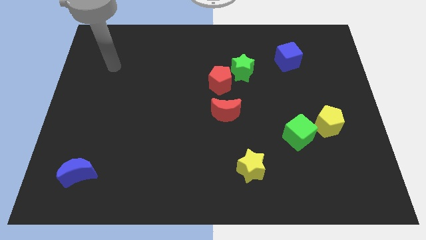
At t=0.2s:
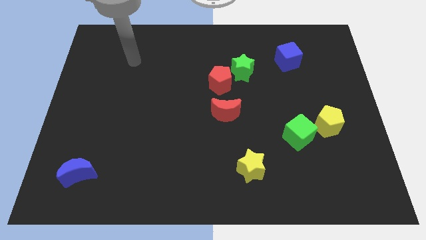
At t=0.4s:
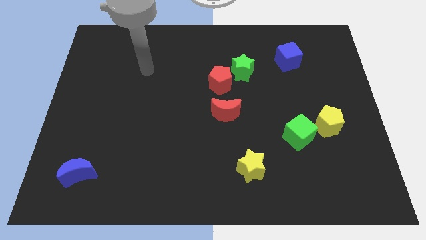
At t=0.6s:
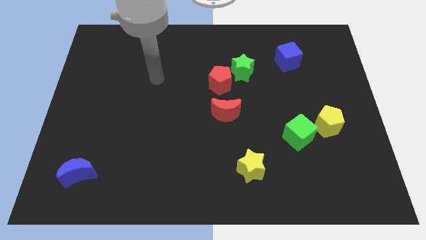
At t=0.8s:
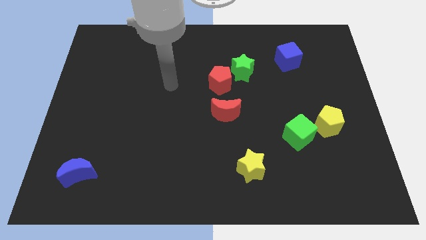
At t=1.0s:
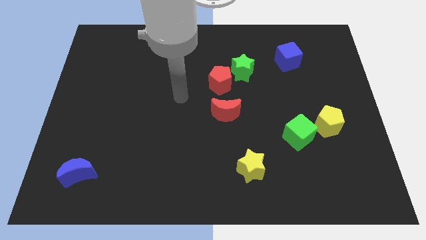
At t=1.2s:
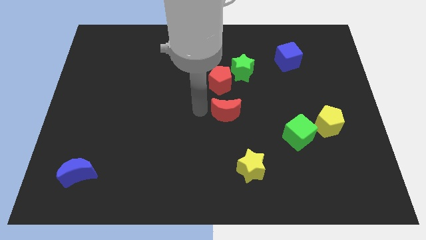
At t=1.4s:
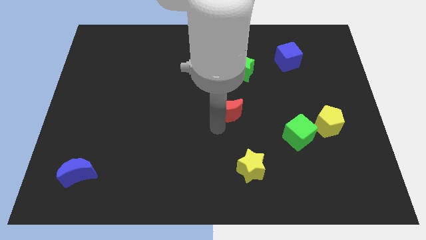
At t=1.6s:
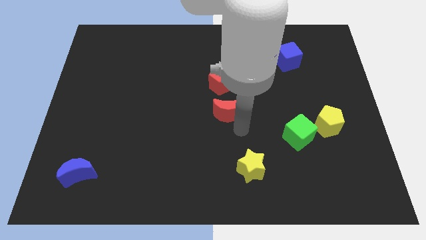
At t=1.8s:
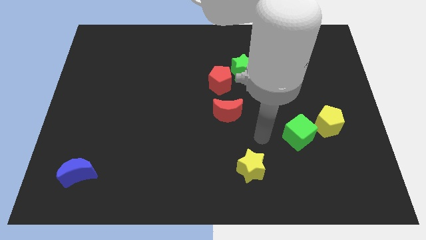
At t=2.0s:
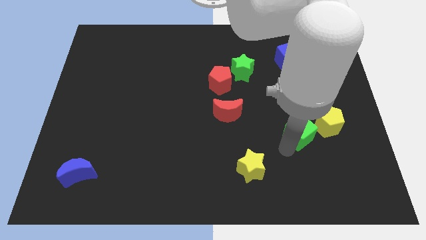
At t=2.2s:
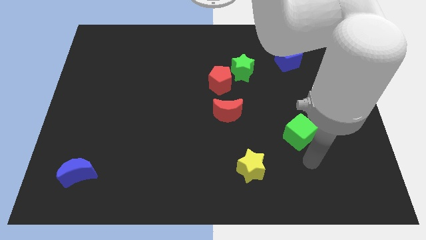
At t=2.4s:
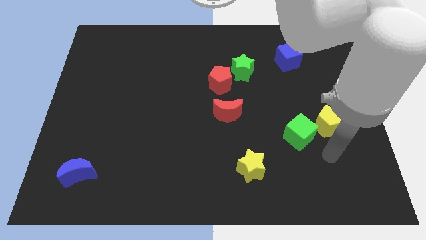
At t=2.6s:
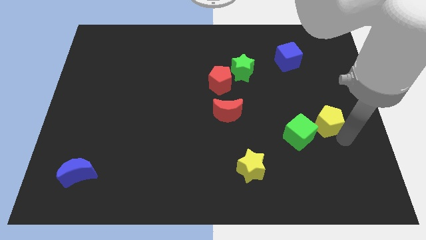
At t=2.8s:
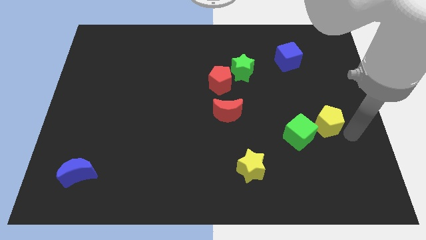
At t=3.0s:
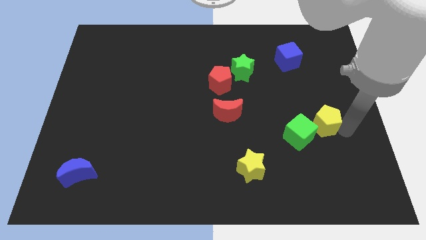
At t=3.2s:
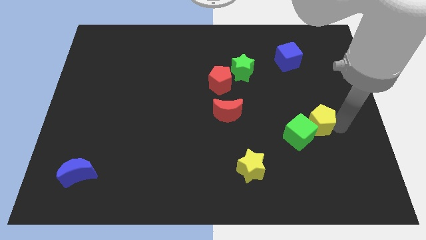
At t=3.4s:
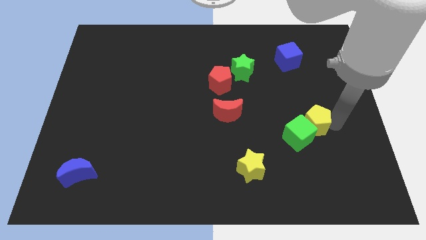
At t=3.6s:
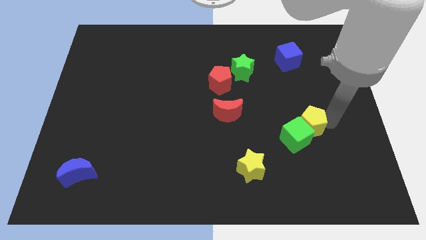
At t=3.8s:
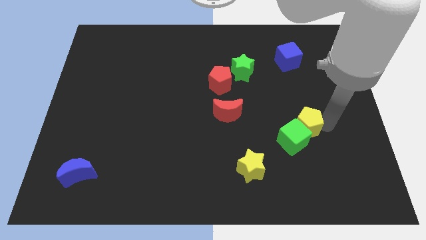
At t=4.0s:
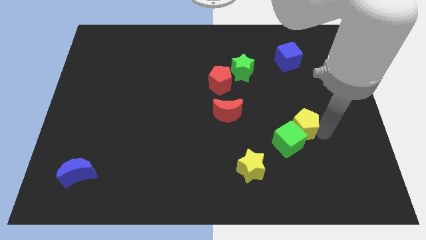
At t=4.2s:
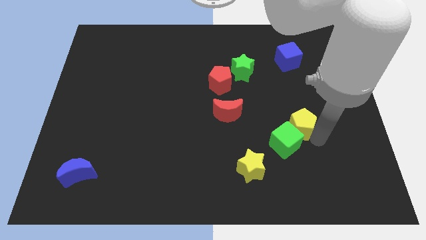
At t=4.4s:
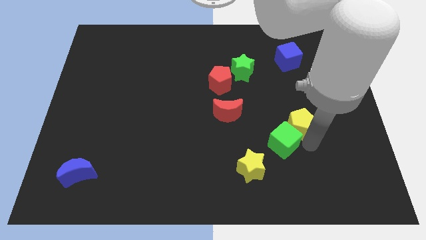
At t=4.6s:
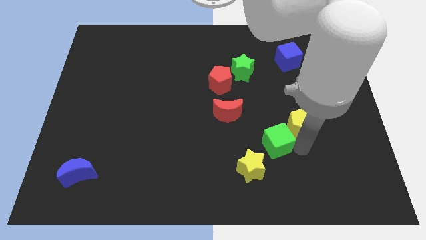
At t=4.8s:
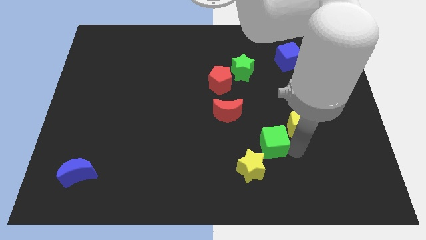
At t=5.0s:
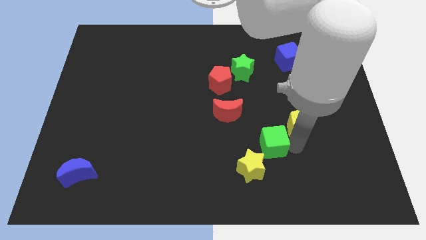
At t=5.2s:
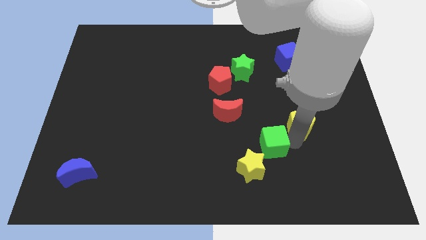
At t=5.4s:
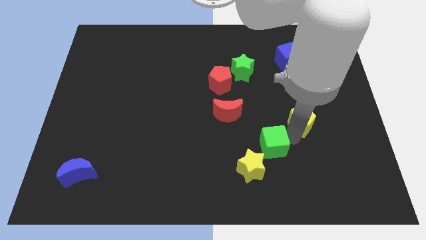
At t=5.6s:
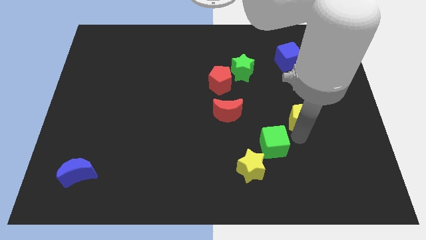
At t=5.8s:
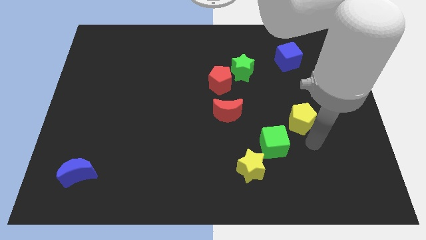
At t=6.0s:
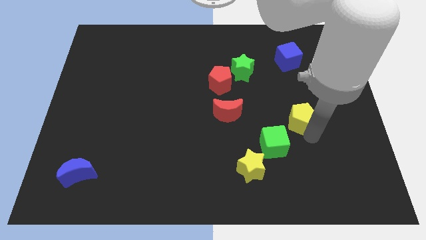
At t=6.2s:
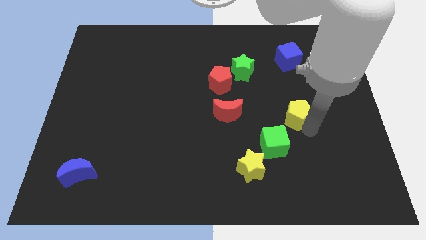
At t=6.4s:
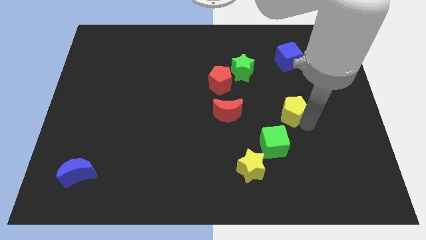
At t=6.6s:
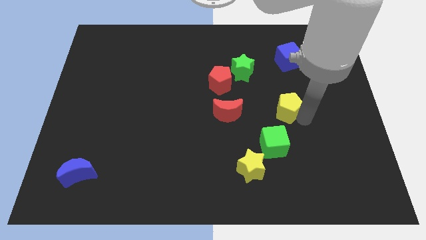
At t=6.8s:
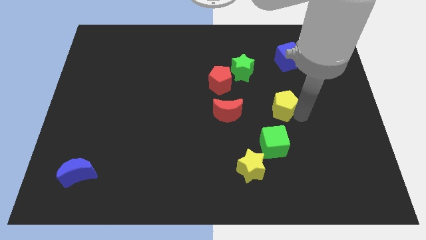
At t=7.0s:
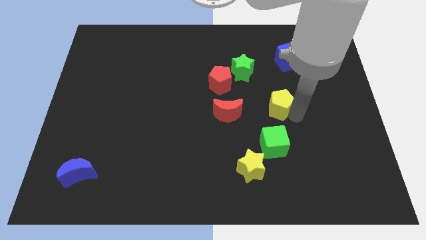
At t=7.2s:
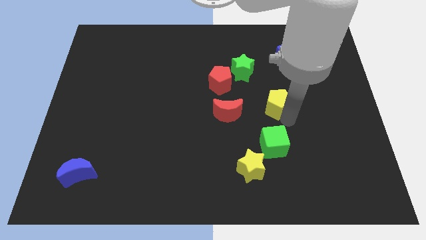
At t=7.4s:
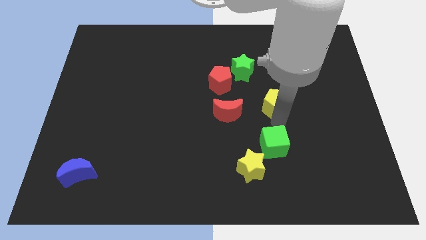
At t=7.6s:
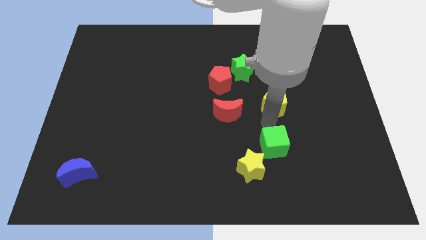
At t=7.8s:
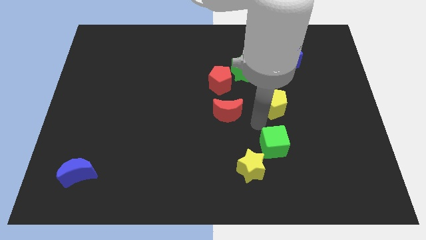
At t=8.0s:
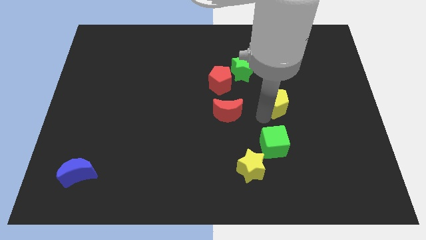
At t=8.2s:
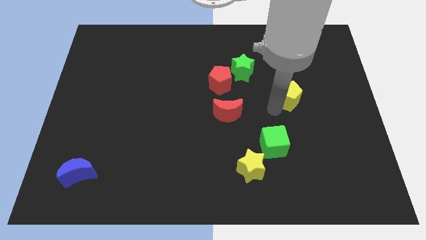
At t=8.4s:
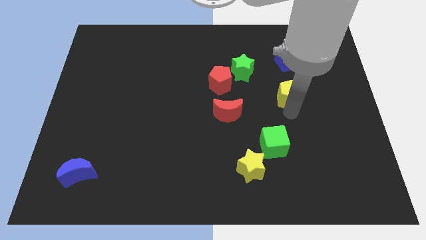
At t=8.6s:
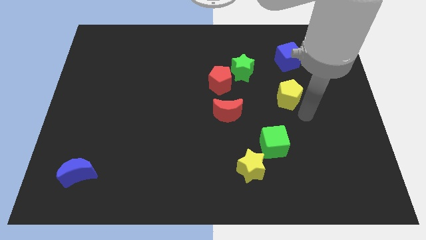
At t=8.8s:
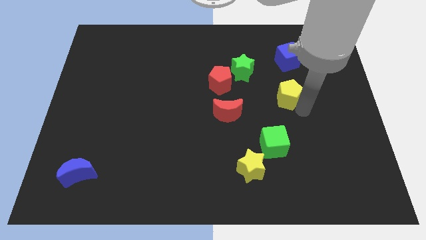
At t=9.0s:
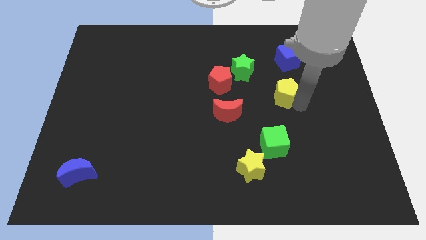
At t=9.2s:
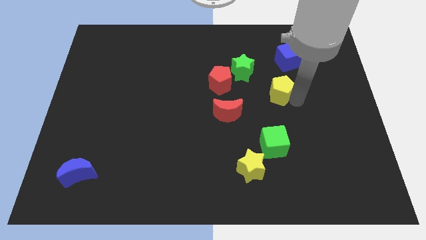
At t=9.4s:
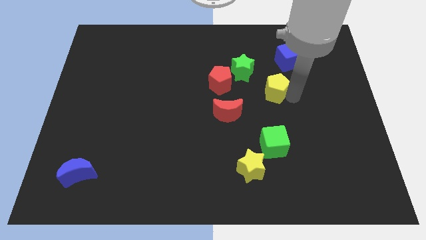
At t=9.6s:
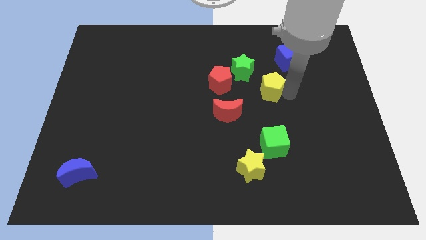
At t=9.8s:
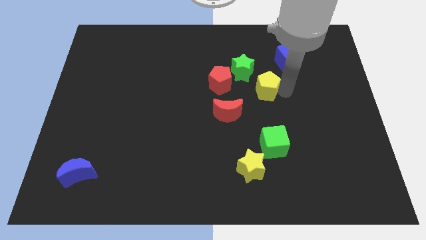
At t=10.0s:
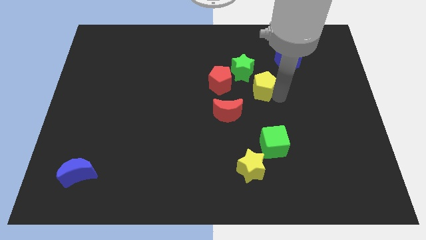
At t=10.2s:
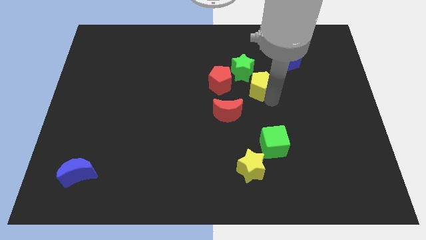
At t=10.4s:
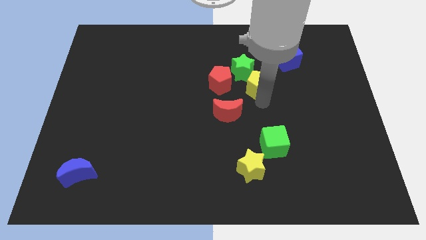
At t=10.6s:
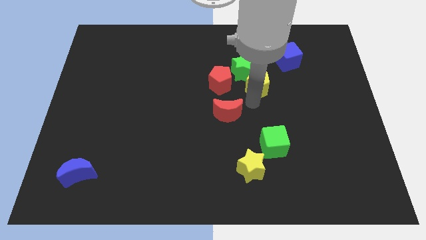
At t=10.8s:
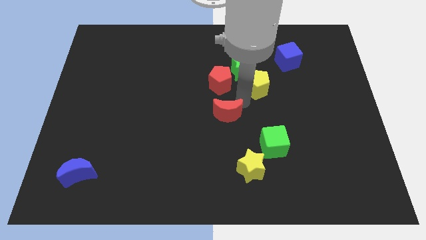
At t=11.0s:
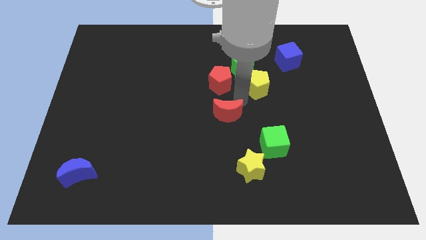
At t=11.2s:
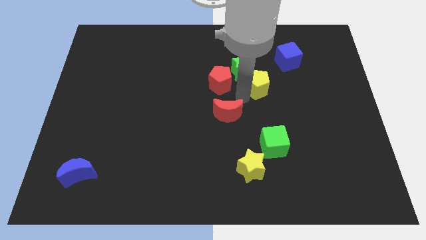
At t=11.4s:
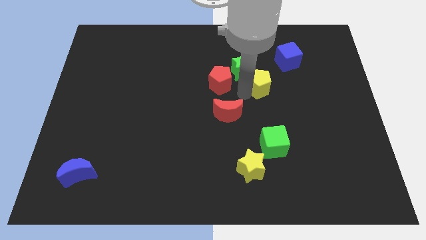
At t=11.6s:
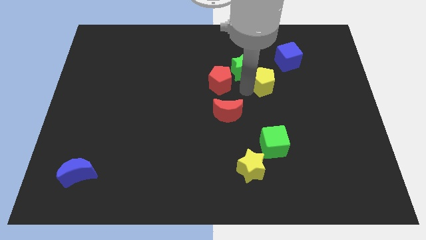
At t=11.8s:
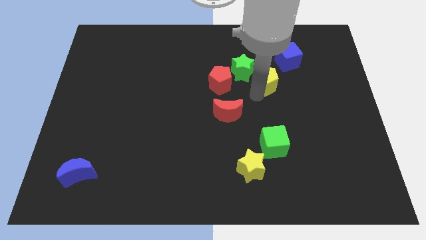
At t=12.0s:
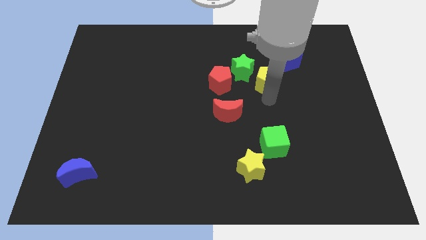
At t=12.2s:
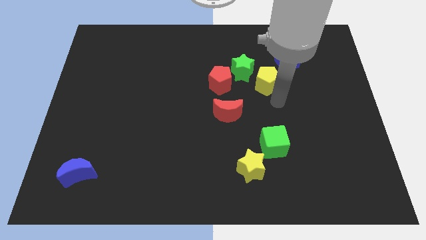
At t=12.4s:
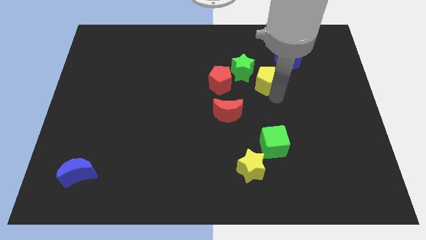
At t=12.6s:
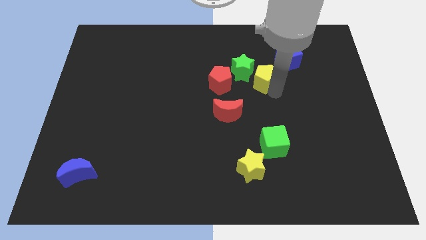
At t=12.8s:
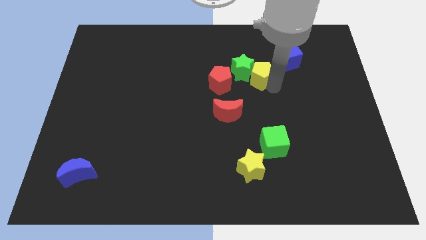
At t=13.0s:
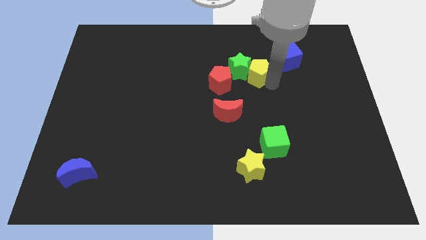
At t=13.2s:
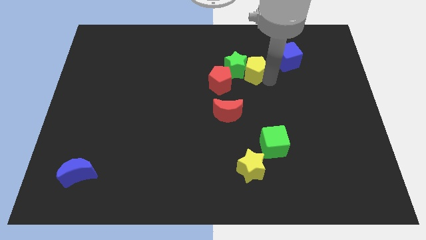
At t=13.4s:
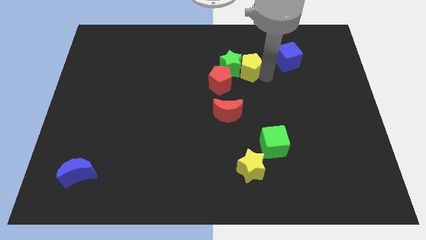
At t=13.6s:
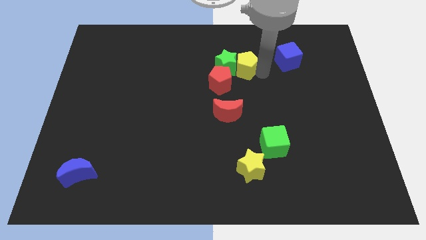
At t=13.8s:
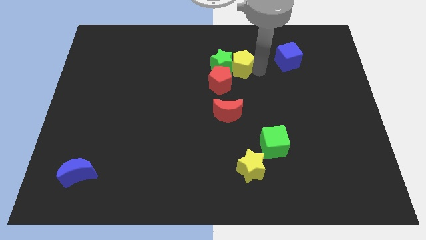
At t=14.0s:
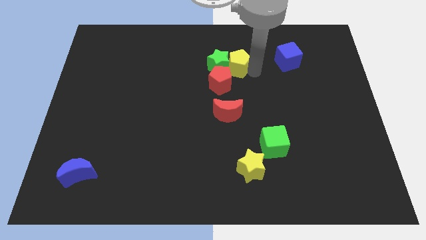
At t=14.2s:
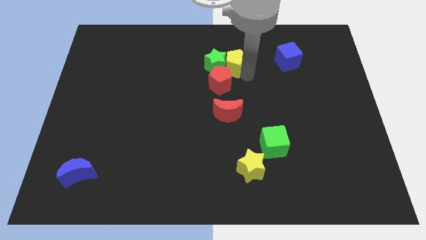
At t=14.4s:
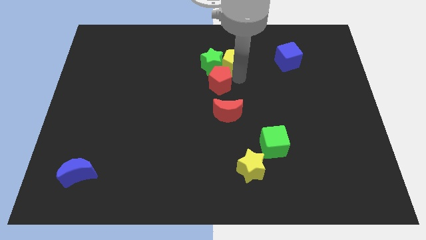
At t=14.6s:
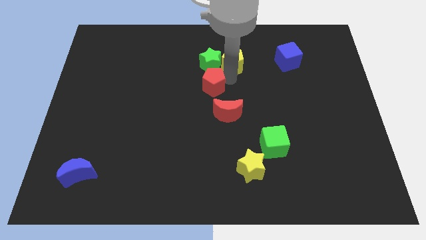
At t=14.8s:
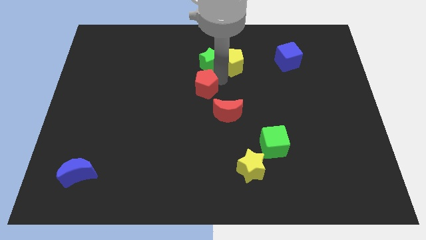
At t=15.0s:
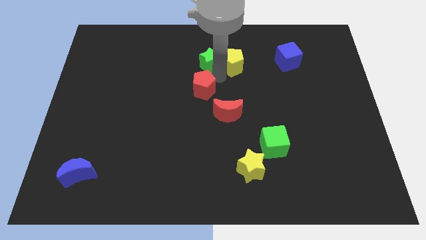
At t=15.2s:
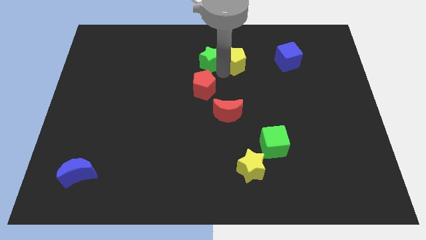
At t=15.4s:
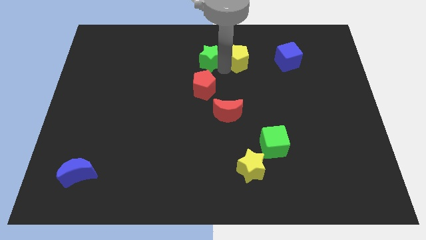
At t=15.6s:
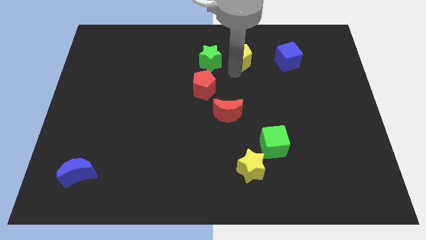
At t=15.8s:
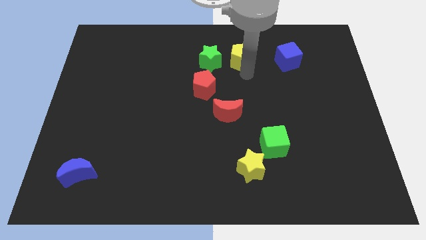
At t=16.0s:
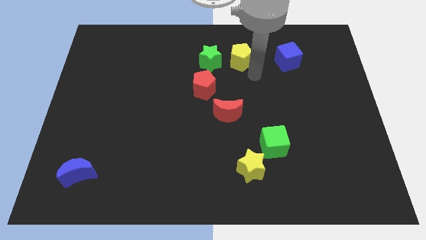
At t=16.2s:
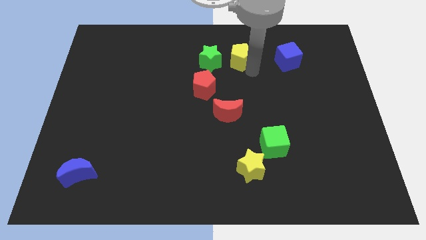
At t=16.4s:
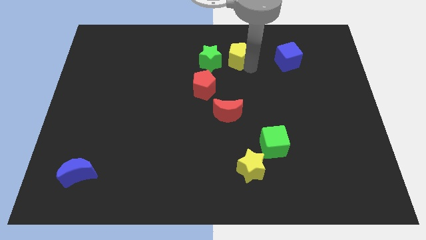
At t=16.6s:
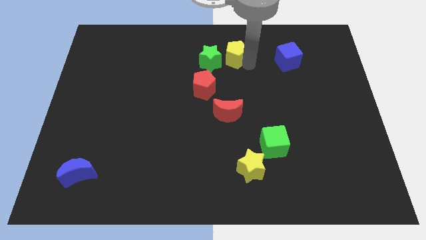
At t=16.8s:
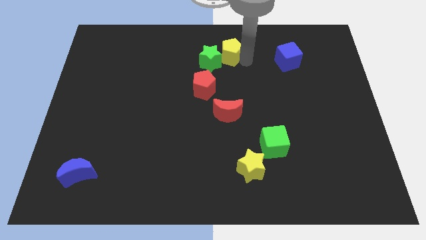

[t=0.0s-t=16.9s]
move the yellow pentagon to the top
